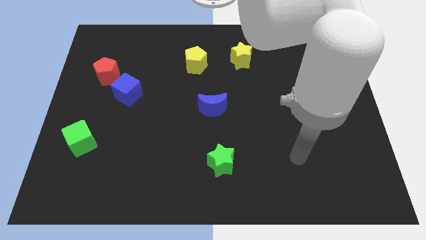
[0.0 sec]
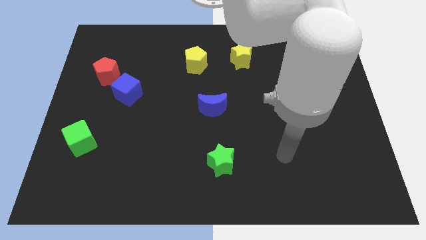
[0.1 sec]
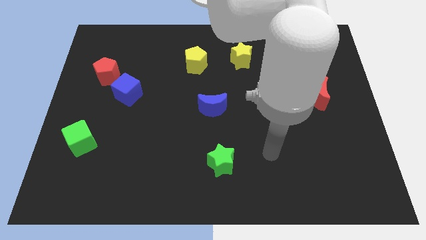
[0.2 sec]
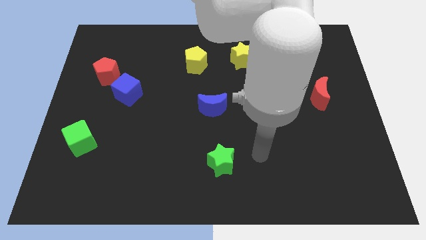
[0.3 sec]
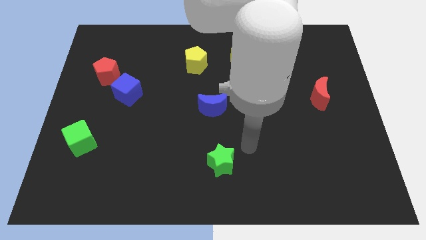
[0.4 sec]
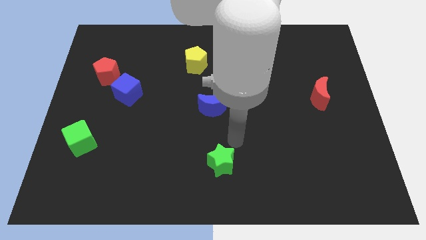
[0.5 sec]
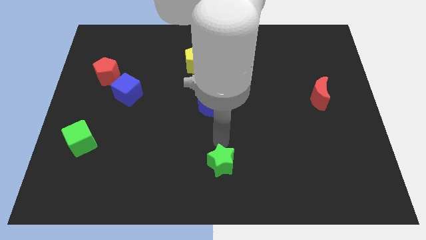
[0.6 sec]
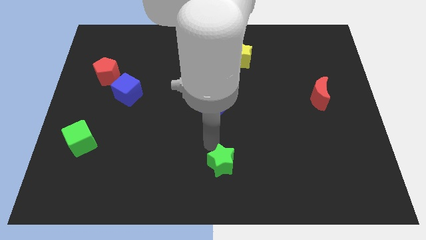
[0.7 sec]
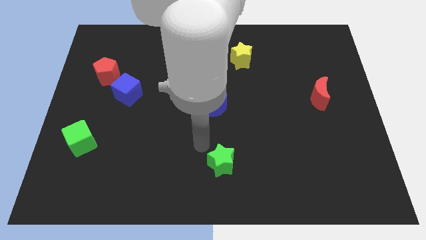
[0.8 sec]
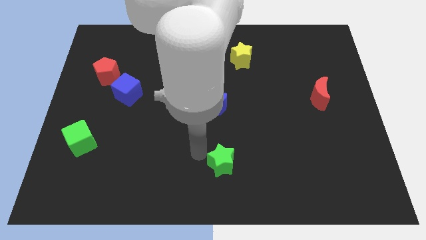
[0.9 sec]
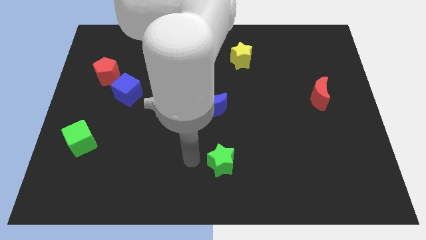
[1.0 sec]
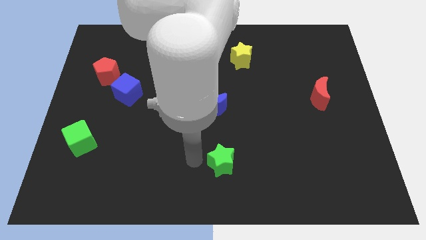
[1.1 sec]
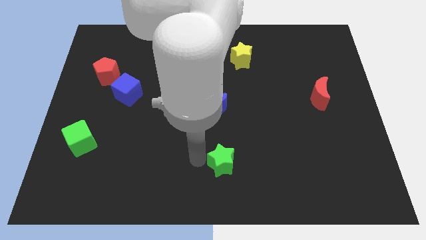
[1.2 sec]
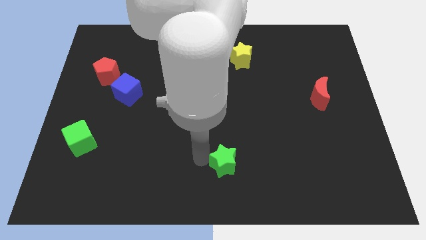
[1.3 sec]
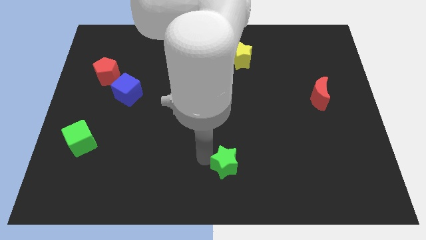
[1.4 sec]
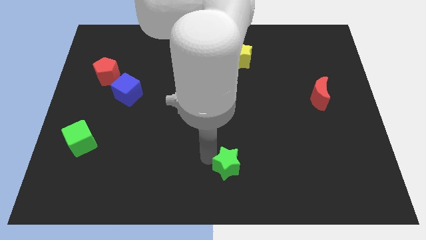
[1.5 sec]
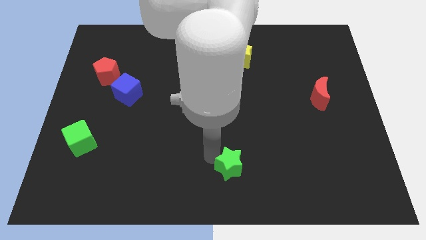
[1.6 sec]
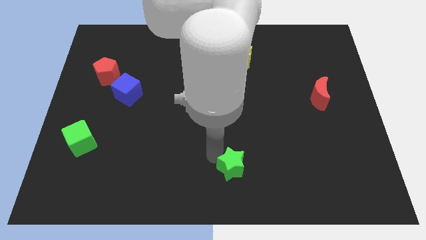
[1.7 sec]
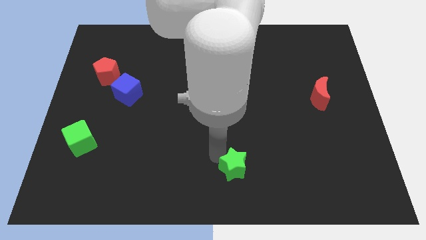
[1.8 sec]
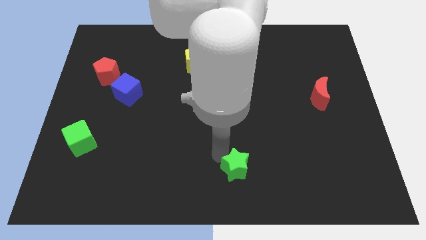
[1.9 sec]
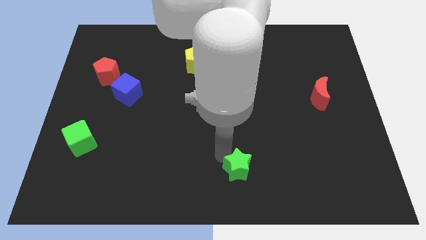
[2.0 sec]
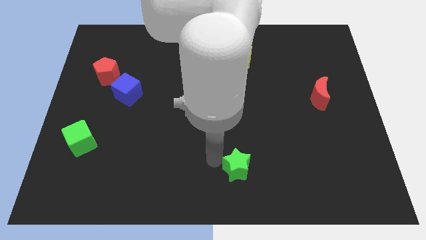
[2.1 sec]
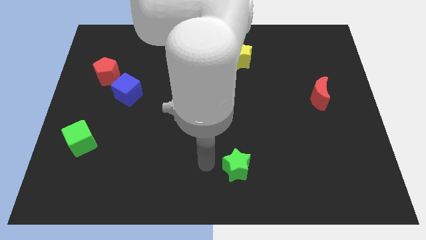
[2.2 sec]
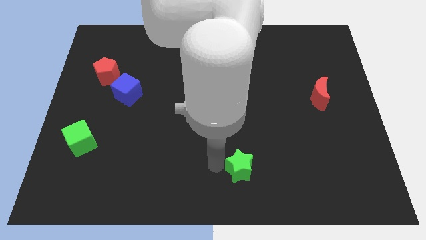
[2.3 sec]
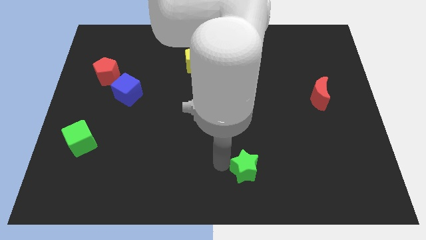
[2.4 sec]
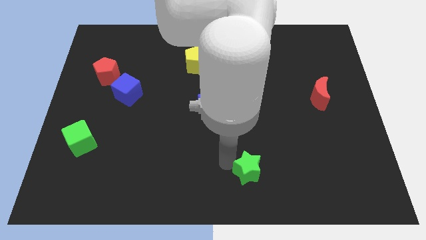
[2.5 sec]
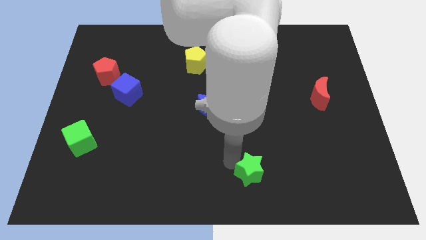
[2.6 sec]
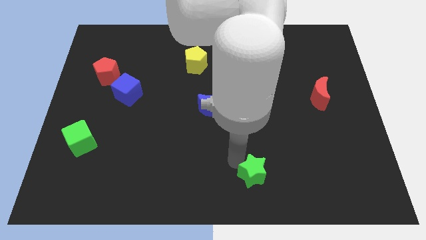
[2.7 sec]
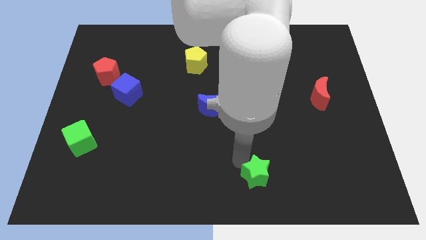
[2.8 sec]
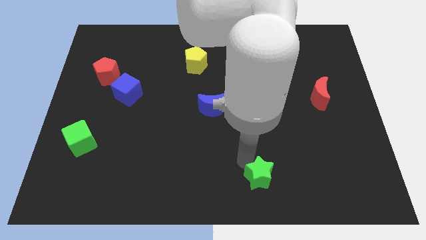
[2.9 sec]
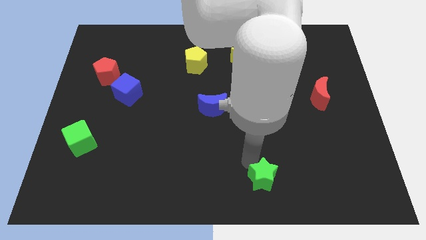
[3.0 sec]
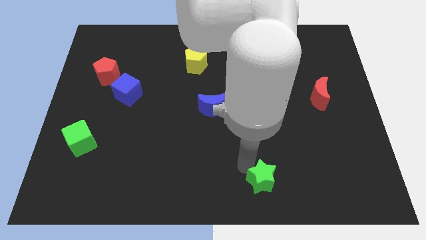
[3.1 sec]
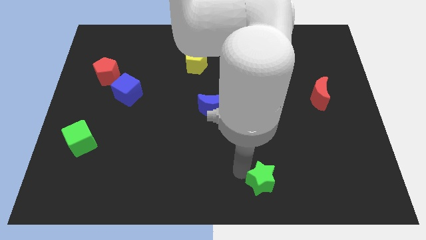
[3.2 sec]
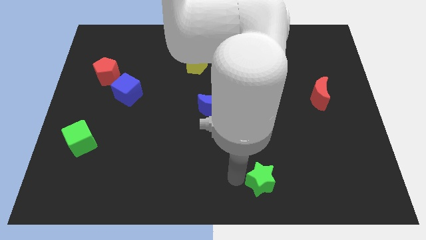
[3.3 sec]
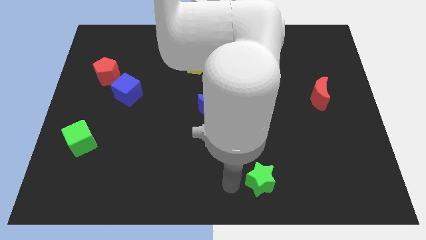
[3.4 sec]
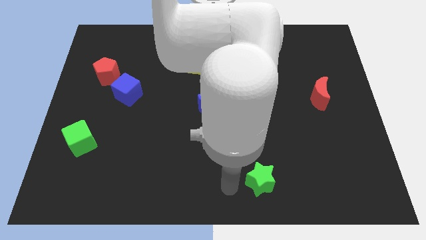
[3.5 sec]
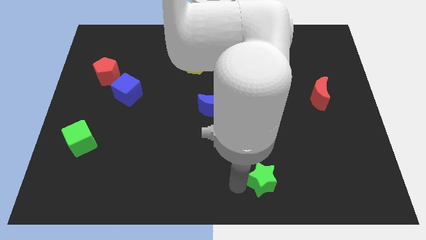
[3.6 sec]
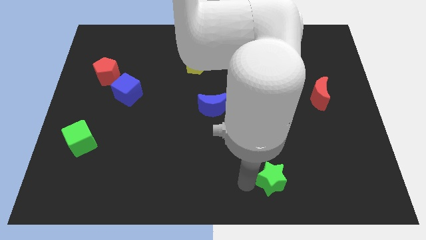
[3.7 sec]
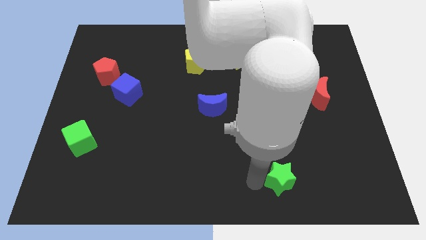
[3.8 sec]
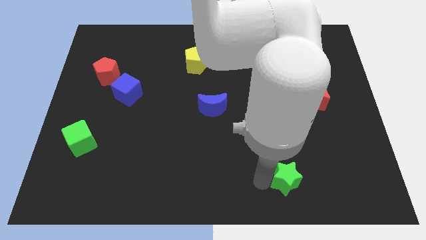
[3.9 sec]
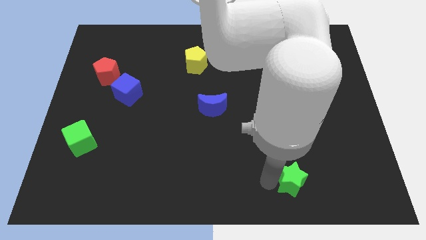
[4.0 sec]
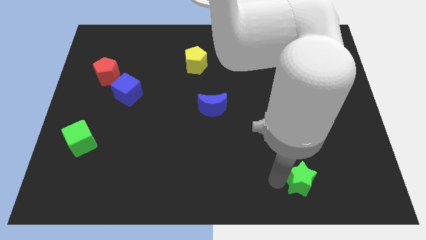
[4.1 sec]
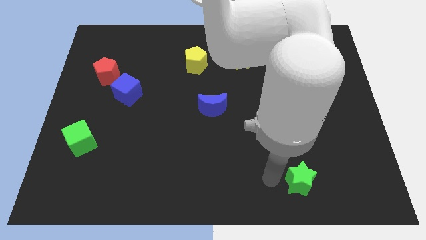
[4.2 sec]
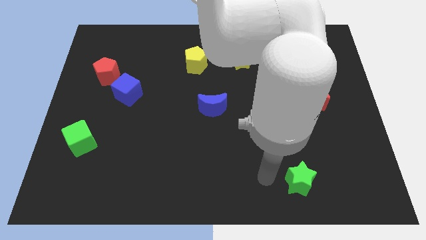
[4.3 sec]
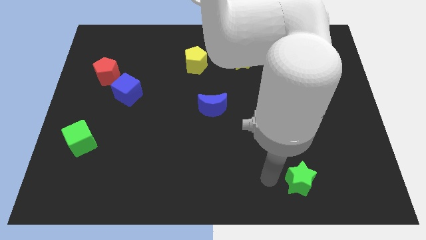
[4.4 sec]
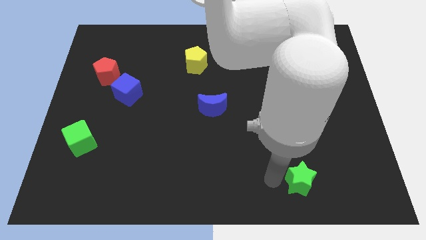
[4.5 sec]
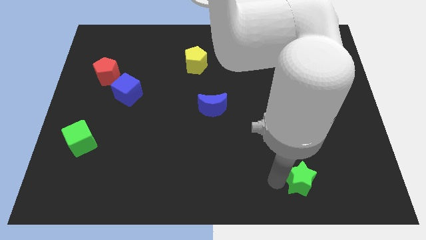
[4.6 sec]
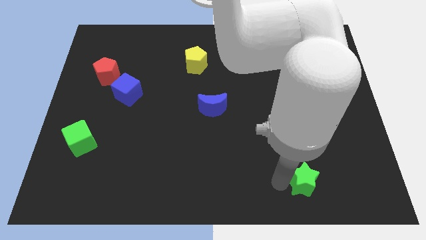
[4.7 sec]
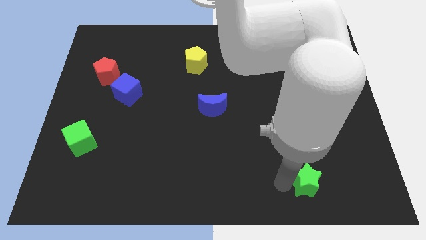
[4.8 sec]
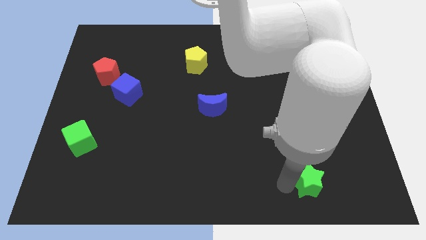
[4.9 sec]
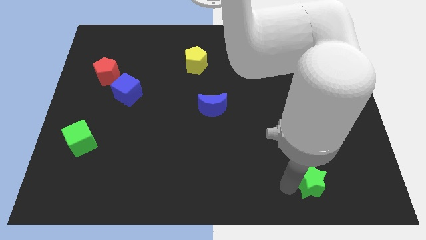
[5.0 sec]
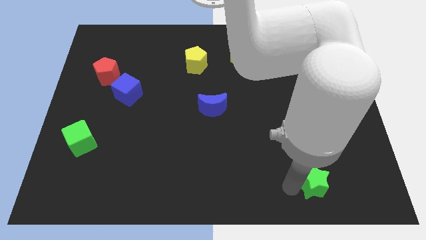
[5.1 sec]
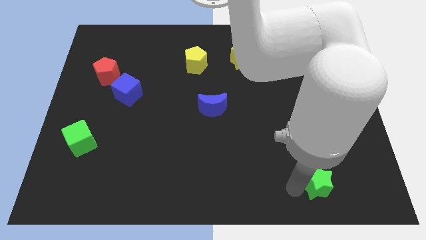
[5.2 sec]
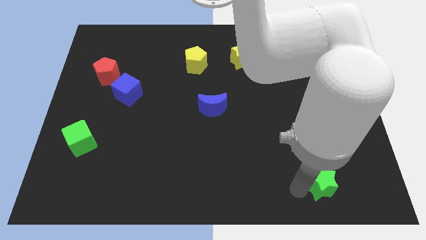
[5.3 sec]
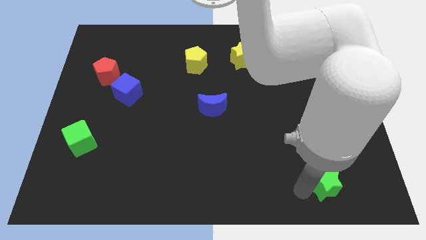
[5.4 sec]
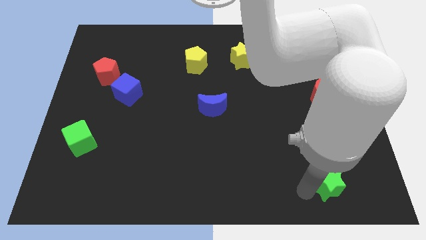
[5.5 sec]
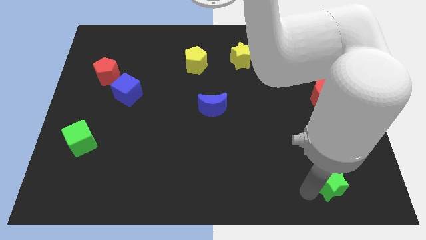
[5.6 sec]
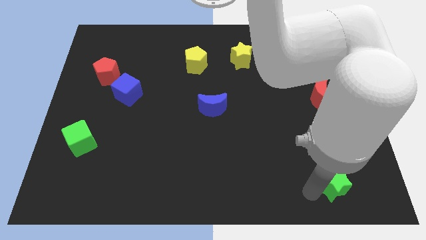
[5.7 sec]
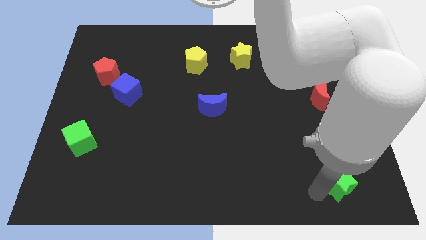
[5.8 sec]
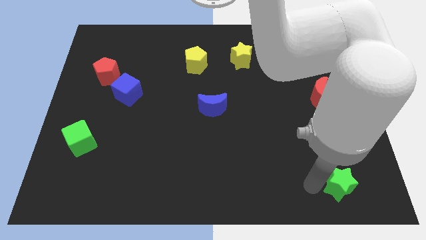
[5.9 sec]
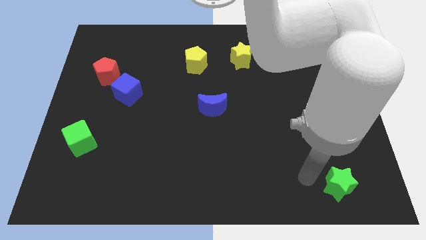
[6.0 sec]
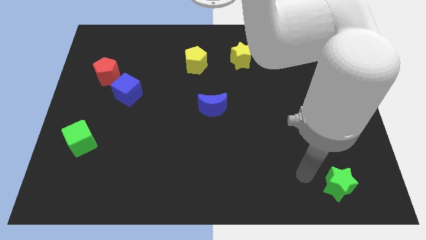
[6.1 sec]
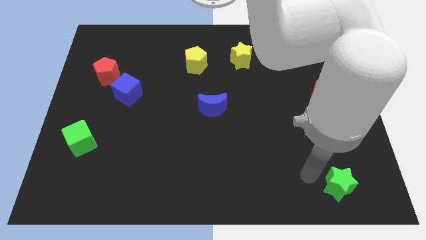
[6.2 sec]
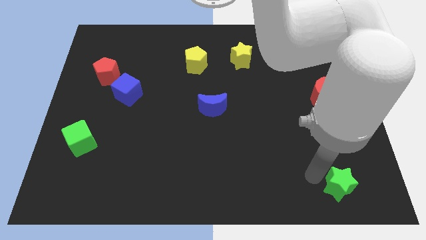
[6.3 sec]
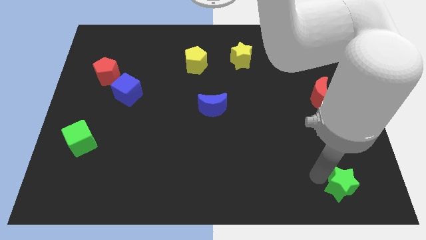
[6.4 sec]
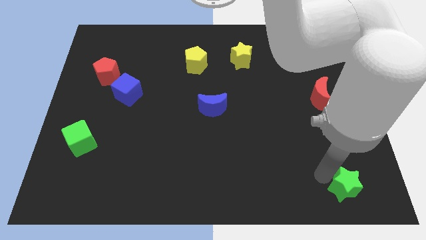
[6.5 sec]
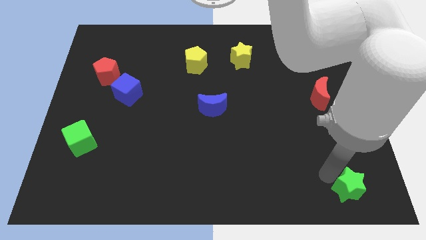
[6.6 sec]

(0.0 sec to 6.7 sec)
push the green star to the bottom right

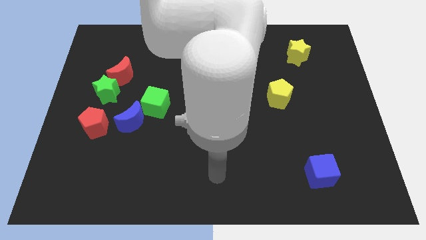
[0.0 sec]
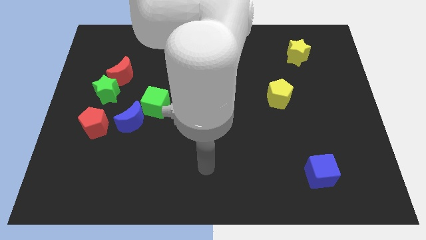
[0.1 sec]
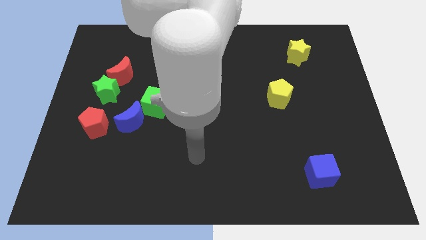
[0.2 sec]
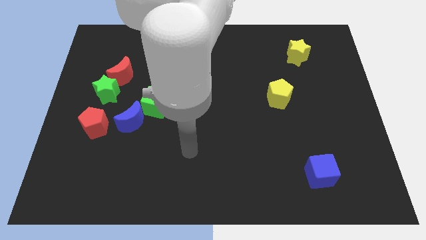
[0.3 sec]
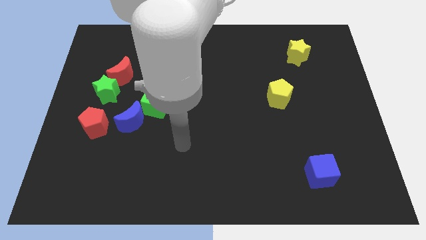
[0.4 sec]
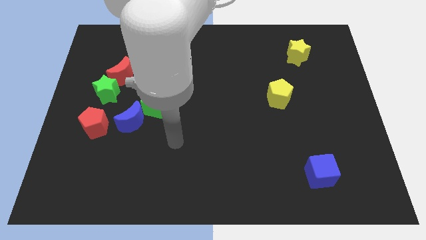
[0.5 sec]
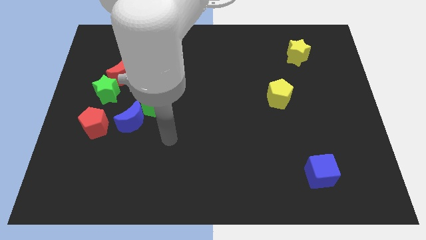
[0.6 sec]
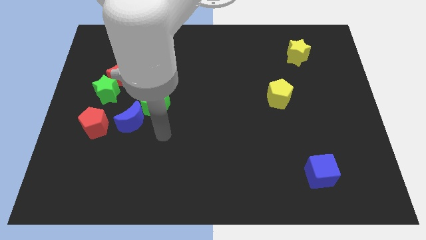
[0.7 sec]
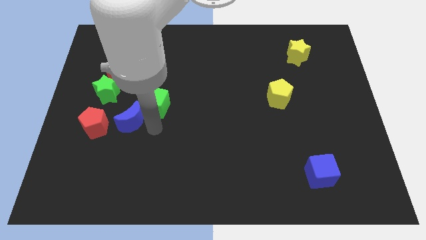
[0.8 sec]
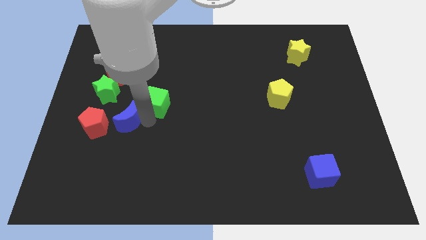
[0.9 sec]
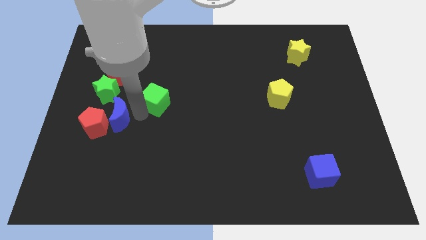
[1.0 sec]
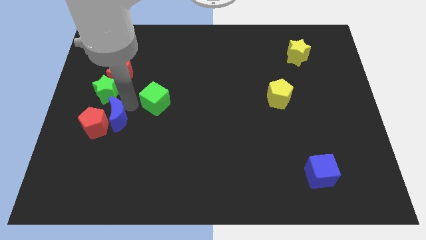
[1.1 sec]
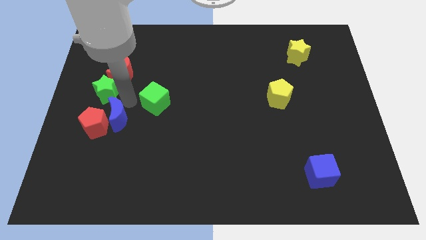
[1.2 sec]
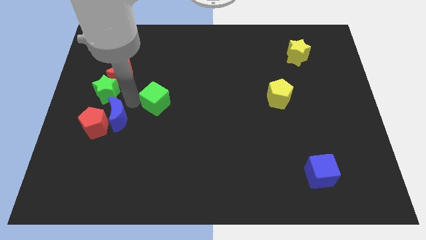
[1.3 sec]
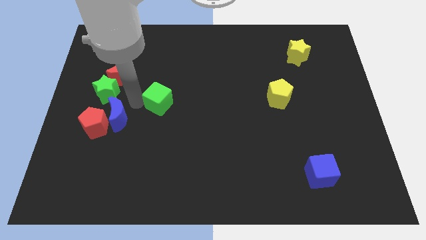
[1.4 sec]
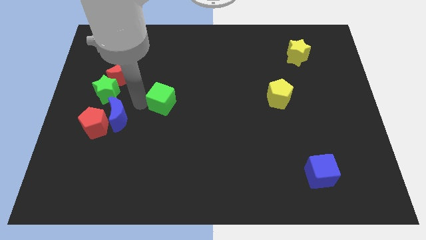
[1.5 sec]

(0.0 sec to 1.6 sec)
slide the green cube to the middle of the board
